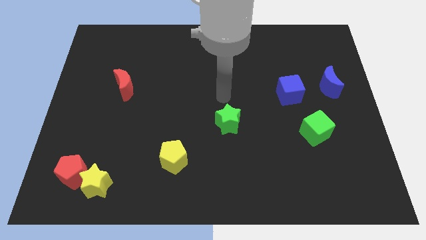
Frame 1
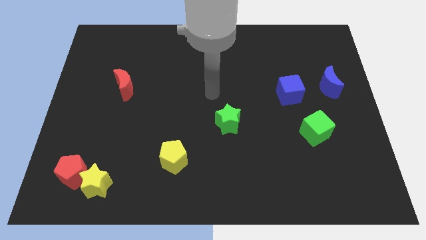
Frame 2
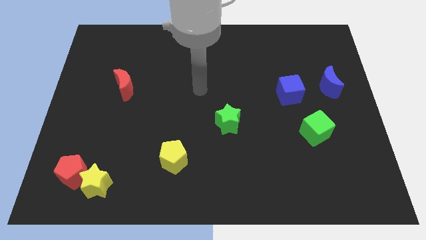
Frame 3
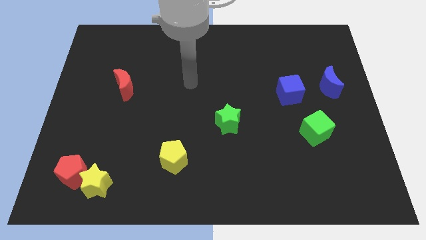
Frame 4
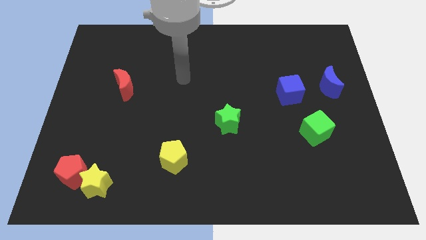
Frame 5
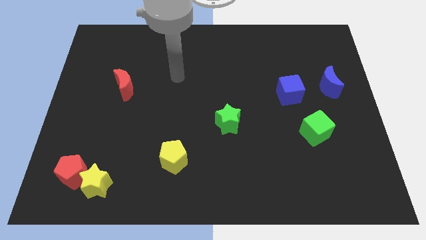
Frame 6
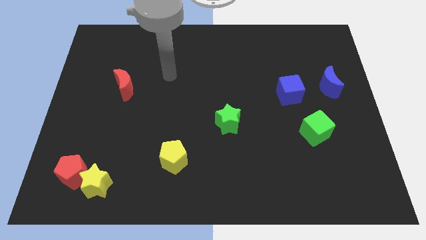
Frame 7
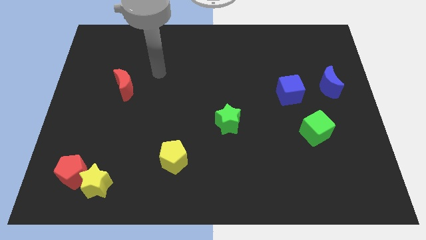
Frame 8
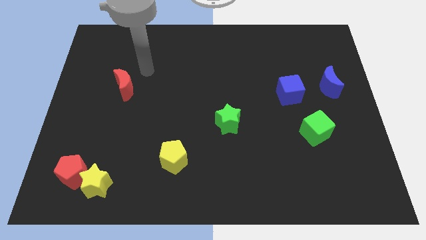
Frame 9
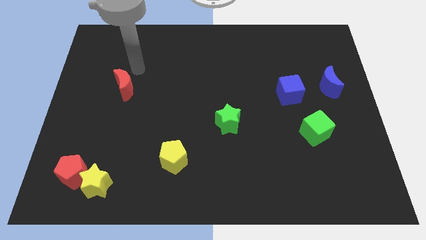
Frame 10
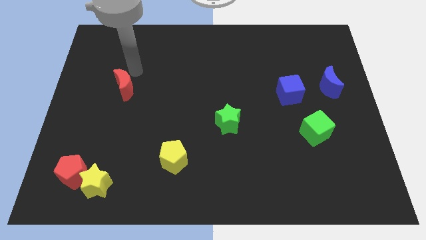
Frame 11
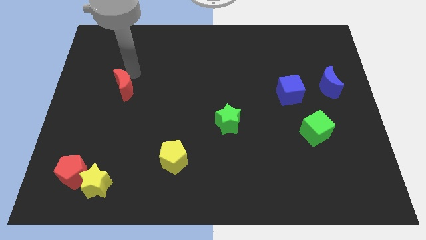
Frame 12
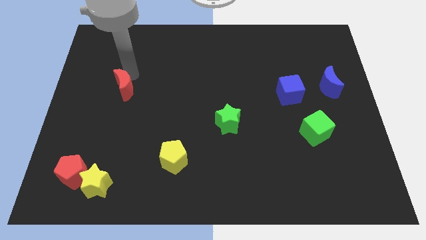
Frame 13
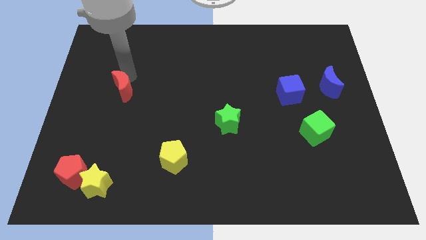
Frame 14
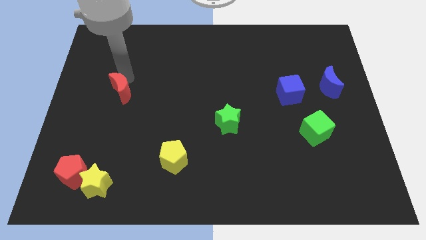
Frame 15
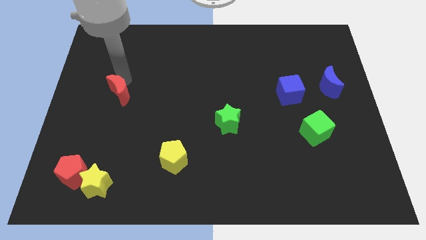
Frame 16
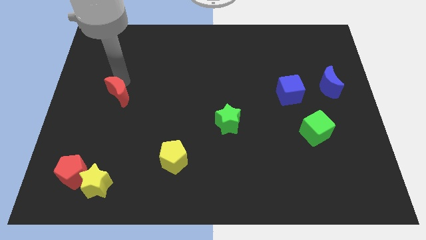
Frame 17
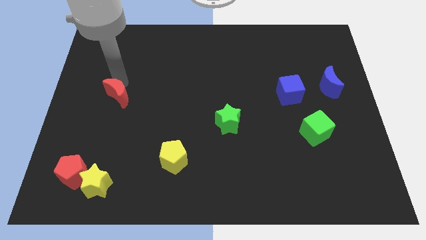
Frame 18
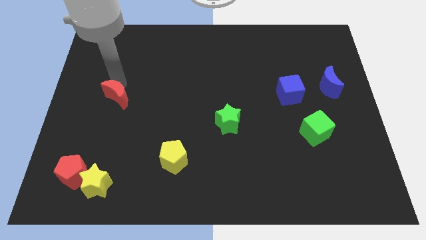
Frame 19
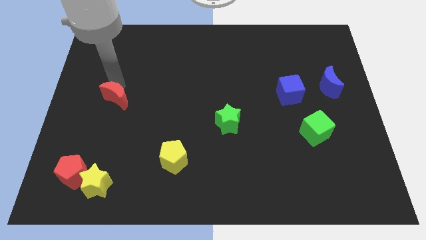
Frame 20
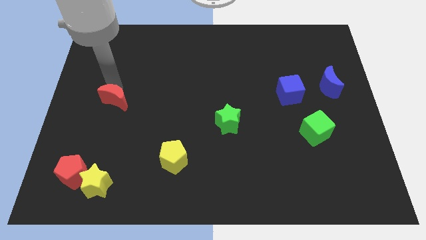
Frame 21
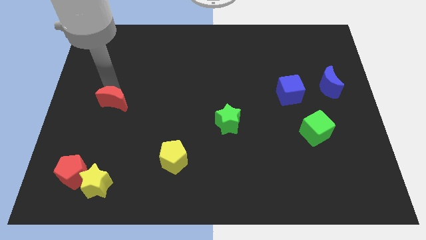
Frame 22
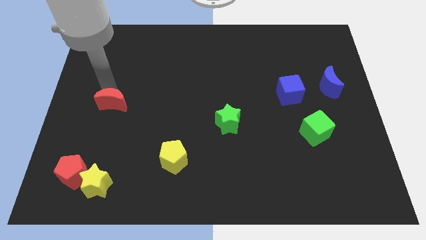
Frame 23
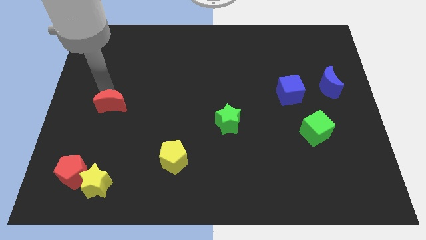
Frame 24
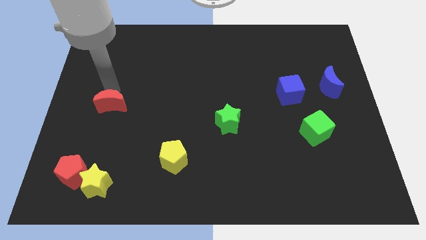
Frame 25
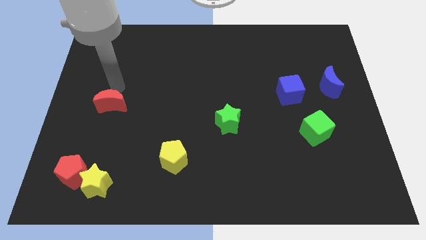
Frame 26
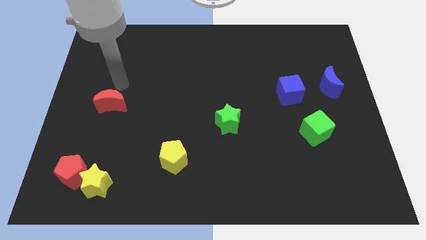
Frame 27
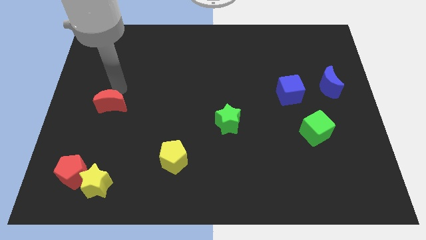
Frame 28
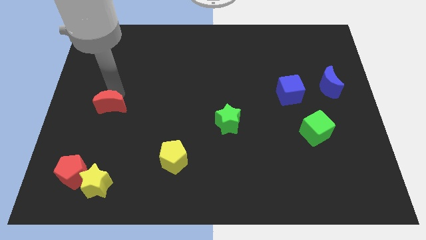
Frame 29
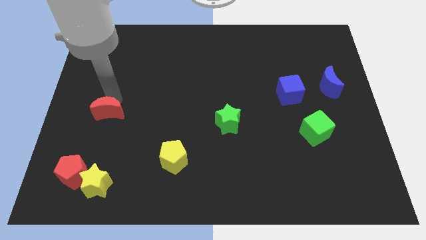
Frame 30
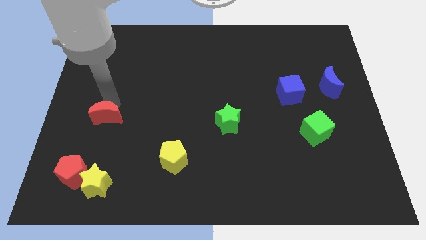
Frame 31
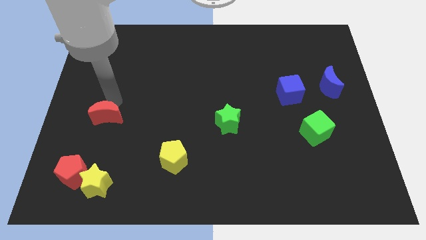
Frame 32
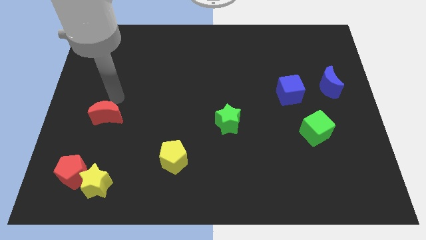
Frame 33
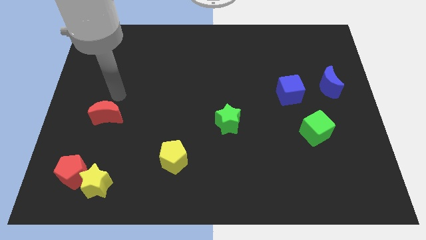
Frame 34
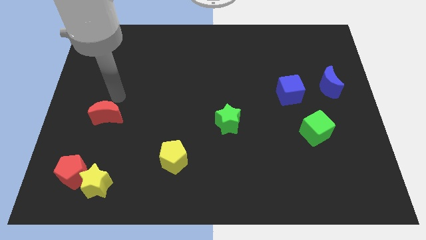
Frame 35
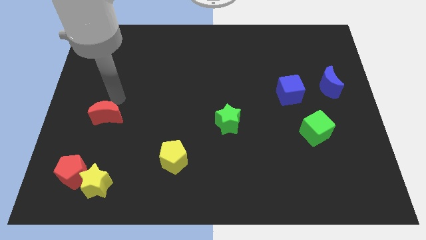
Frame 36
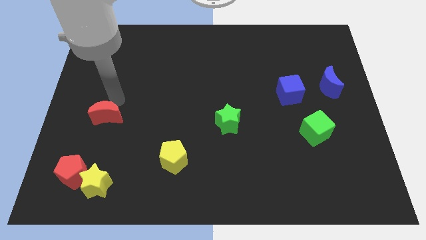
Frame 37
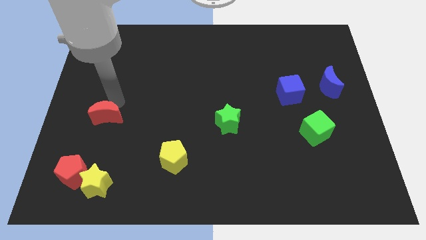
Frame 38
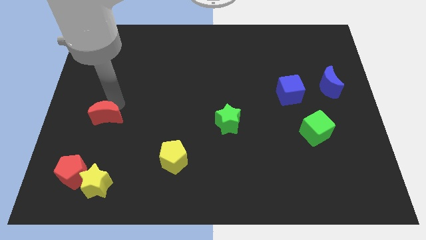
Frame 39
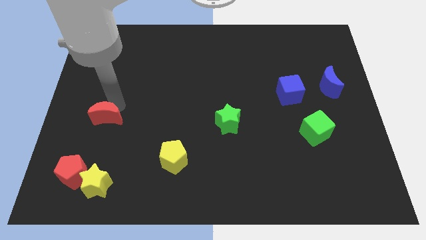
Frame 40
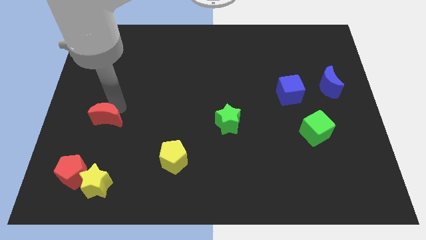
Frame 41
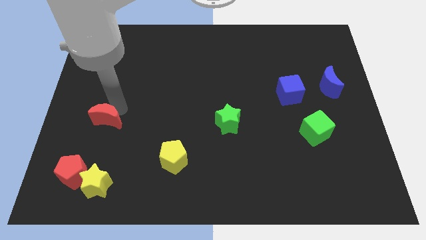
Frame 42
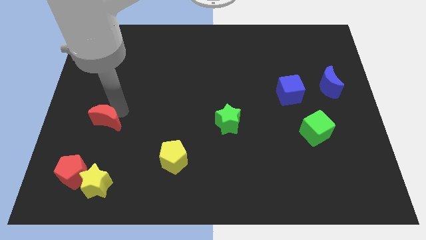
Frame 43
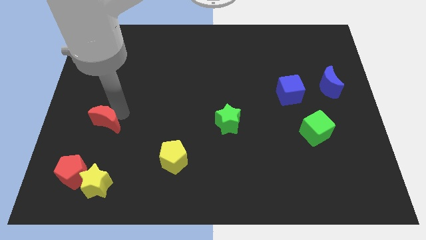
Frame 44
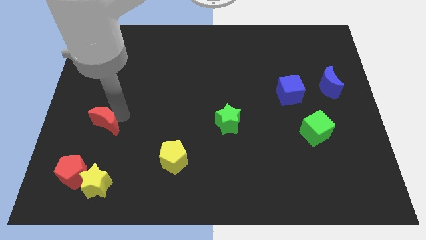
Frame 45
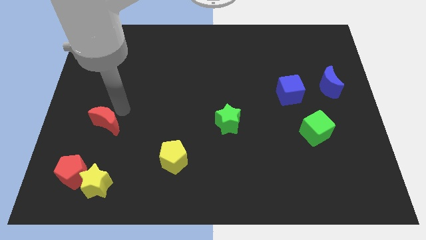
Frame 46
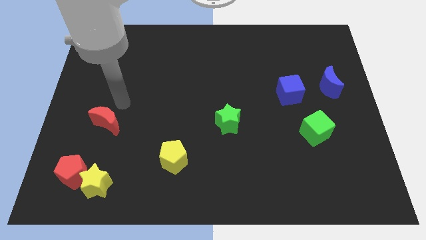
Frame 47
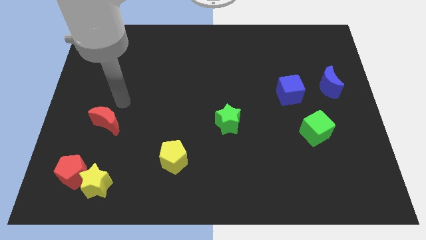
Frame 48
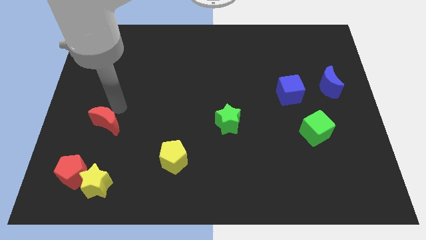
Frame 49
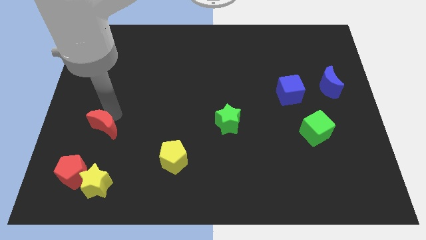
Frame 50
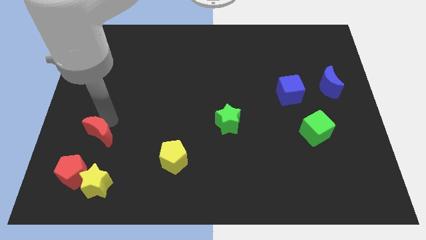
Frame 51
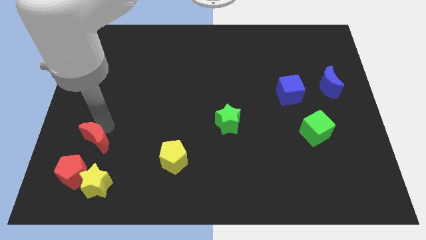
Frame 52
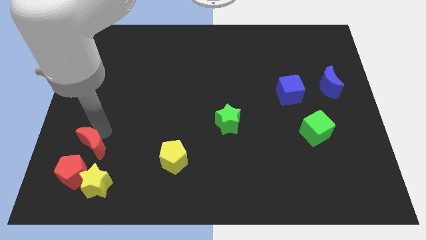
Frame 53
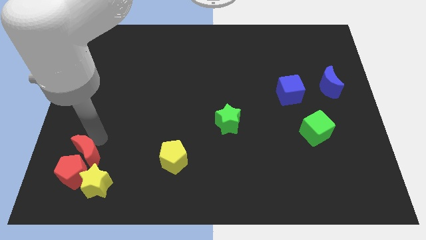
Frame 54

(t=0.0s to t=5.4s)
put the red moon to the red pentagon

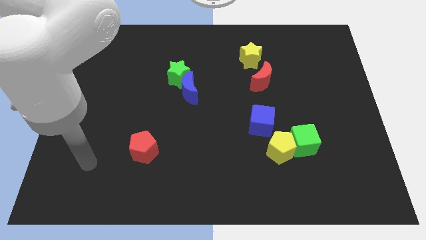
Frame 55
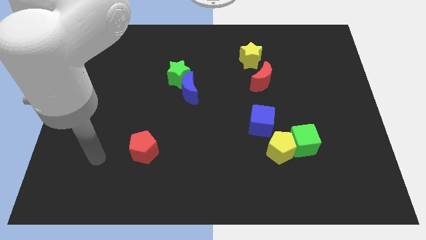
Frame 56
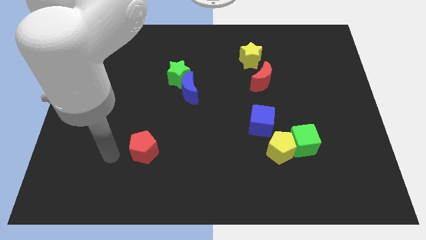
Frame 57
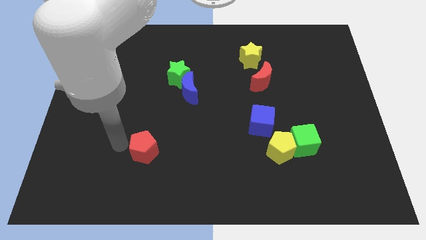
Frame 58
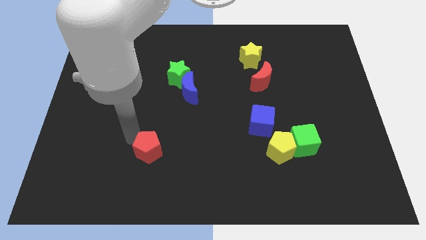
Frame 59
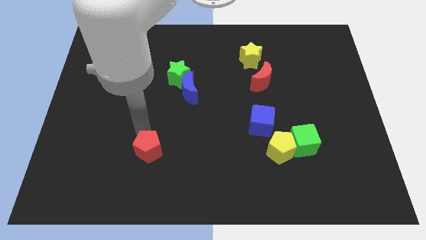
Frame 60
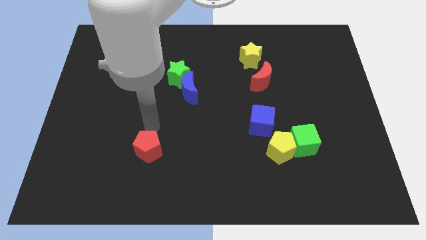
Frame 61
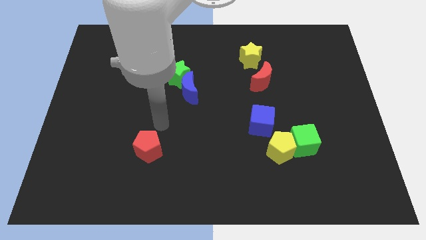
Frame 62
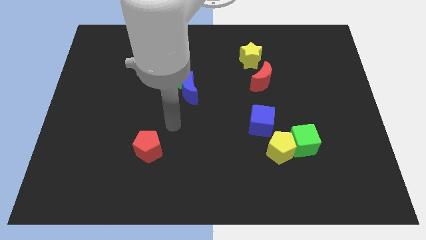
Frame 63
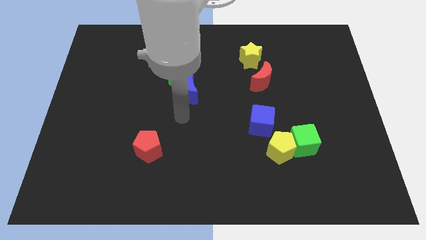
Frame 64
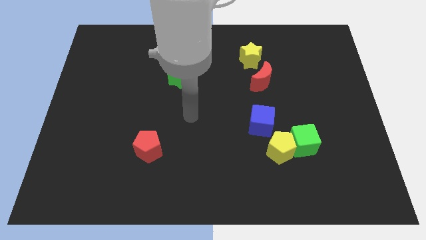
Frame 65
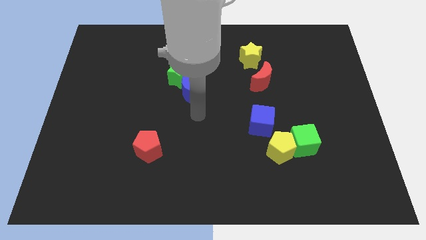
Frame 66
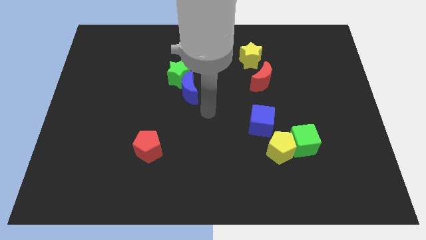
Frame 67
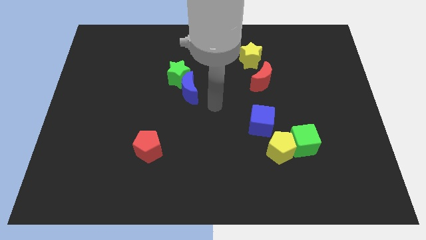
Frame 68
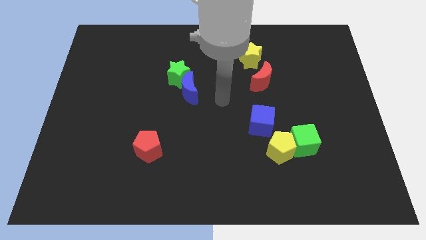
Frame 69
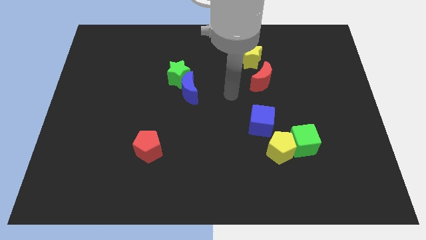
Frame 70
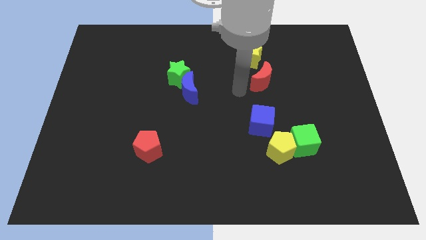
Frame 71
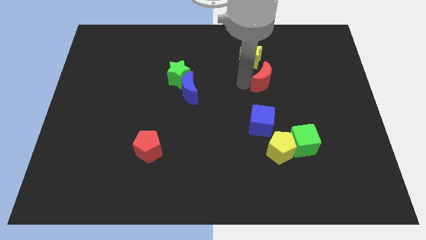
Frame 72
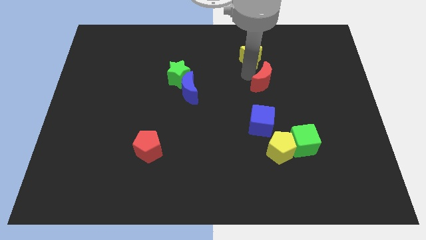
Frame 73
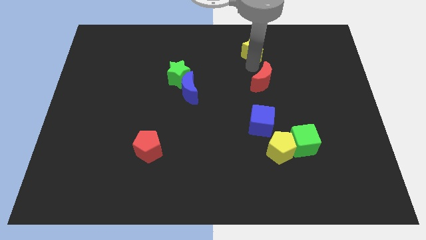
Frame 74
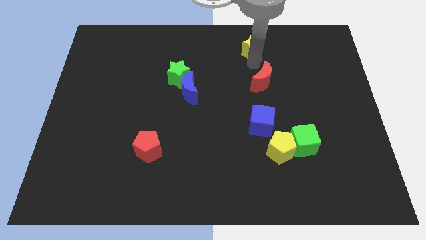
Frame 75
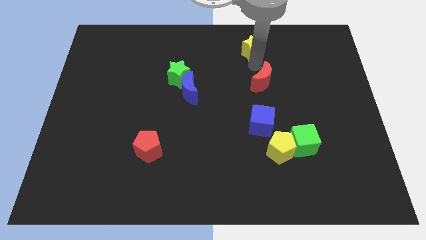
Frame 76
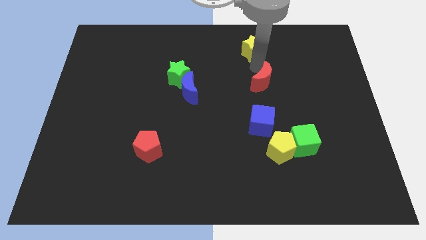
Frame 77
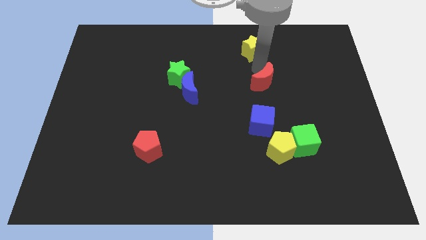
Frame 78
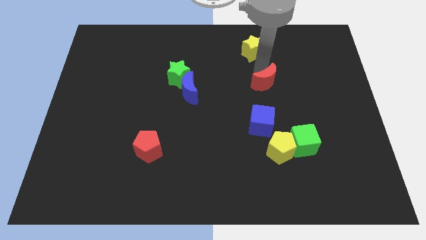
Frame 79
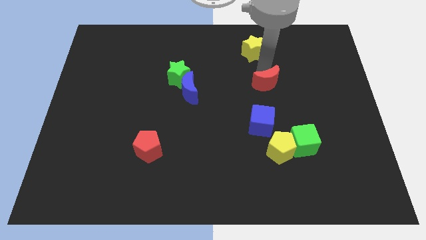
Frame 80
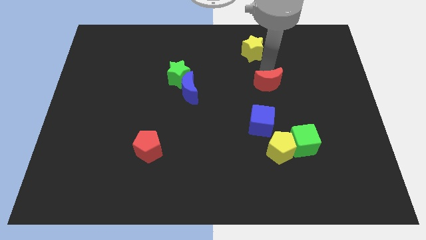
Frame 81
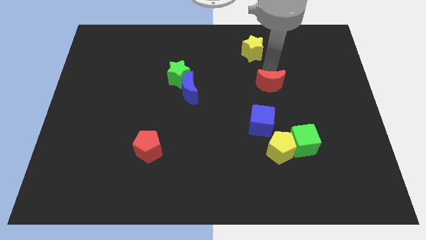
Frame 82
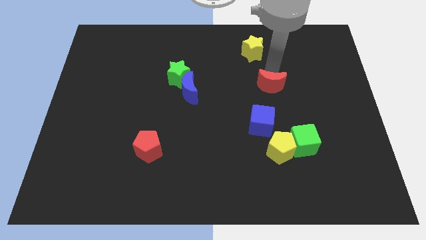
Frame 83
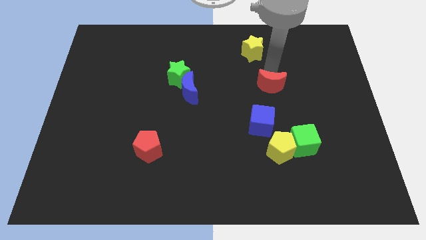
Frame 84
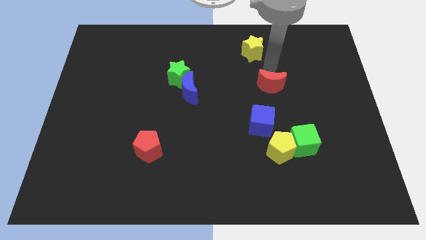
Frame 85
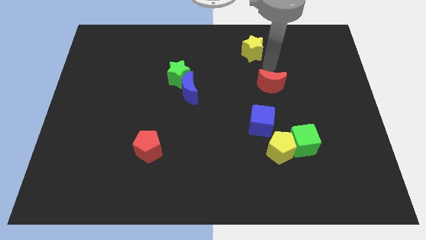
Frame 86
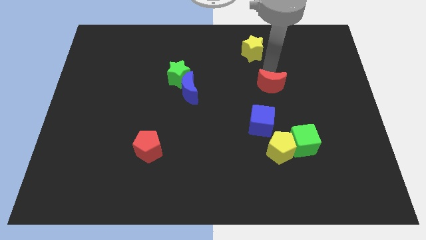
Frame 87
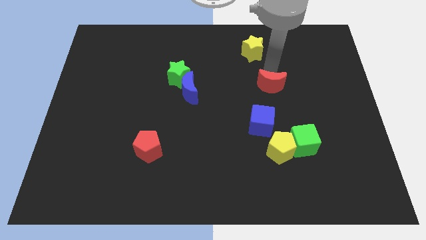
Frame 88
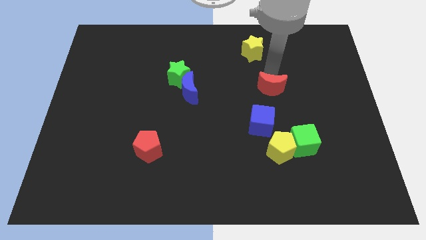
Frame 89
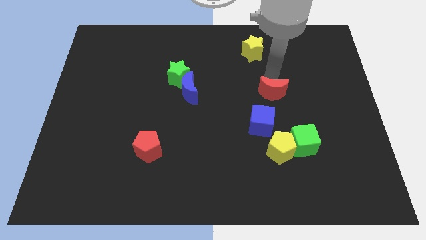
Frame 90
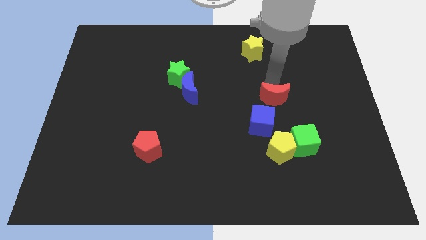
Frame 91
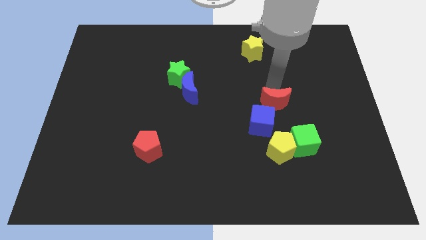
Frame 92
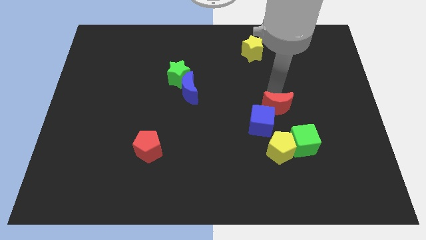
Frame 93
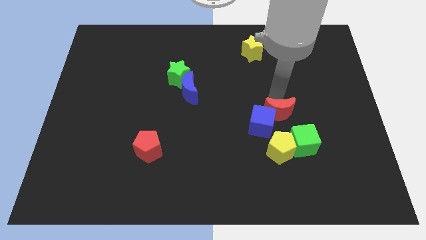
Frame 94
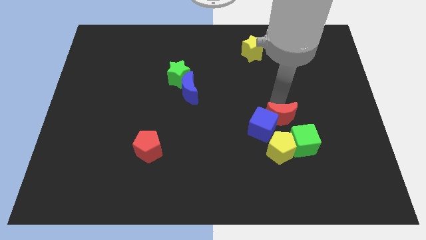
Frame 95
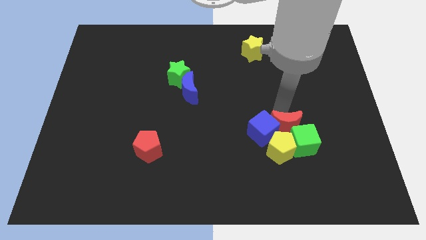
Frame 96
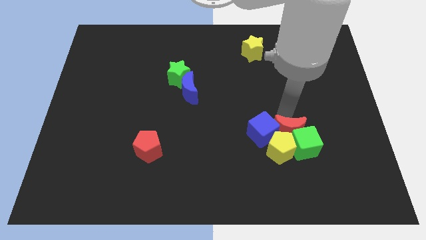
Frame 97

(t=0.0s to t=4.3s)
put the red moon close to the yellow pentagon
